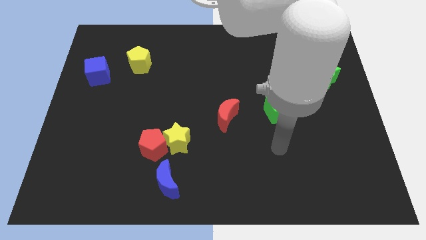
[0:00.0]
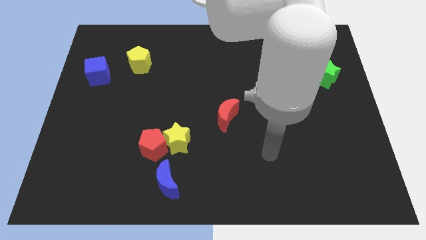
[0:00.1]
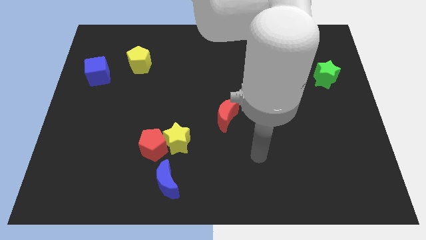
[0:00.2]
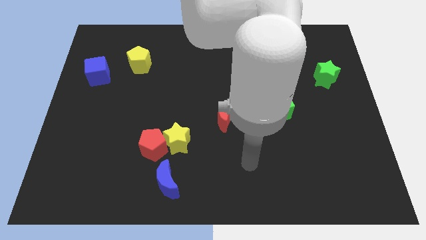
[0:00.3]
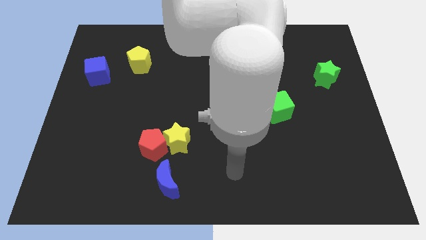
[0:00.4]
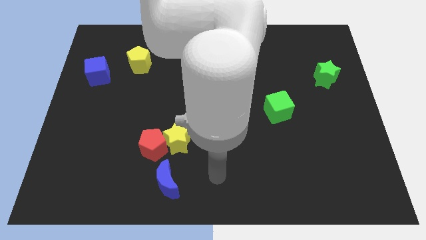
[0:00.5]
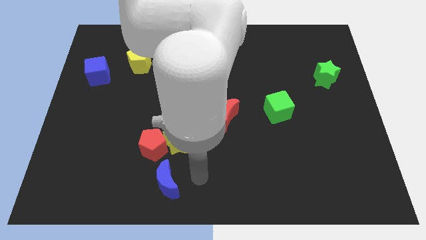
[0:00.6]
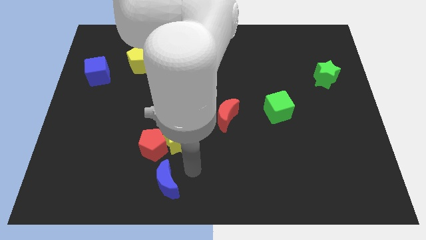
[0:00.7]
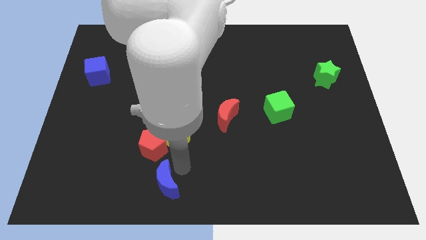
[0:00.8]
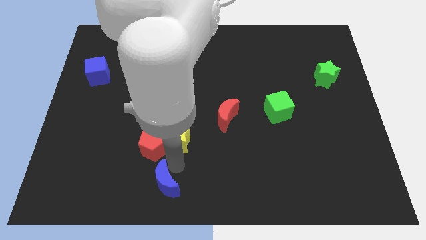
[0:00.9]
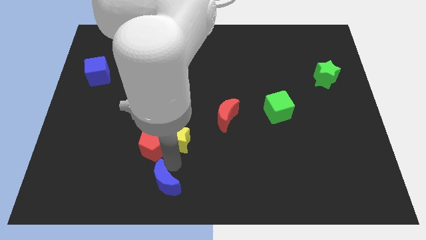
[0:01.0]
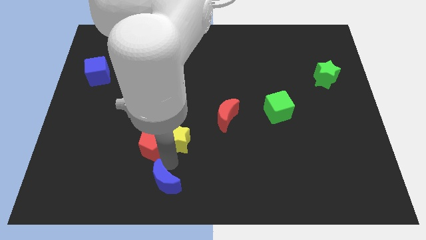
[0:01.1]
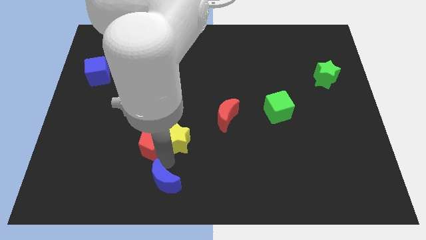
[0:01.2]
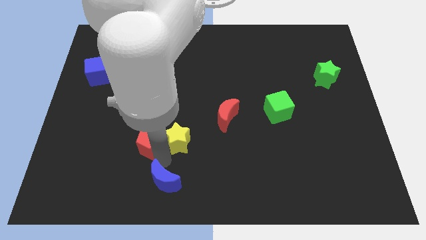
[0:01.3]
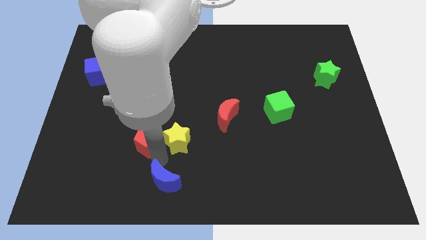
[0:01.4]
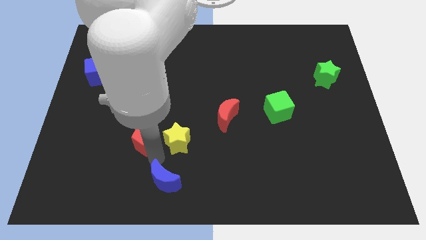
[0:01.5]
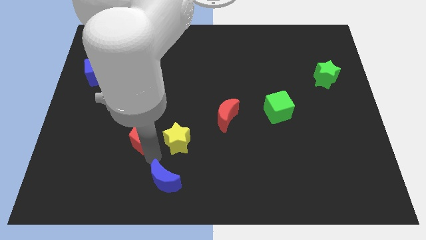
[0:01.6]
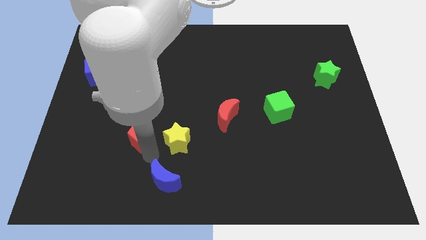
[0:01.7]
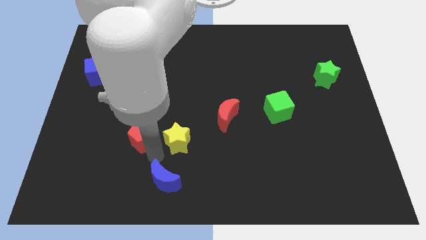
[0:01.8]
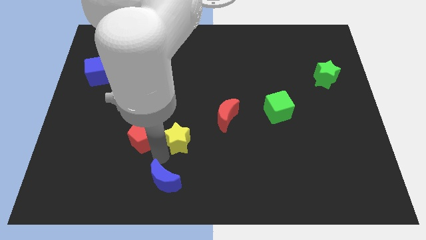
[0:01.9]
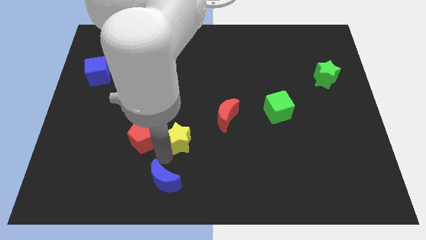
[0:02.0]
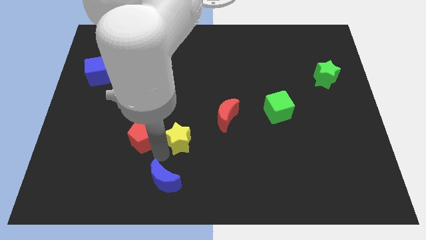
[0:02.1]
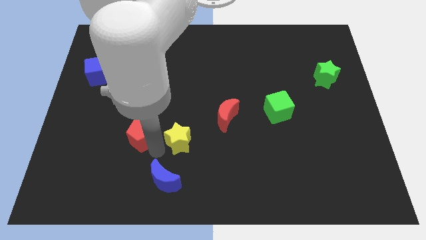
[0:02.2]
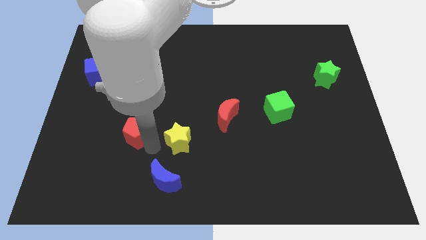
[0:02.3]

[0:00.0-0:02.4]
move the red pentagon away from the yellow star and blue moon

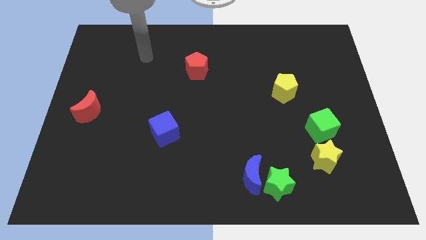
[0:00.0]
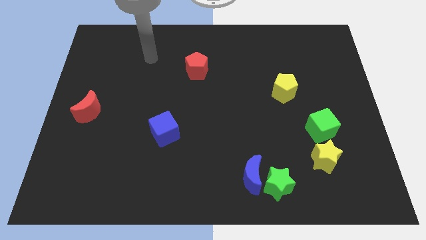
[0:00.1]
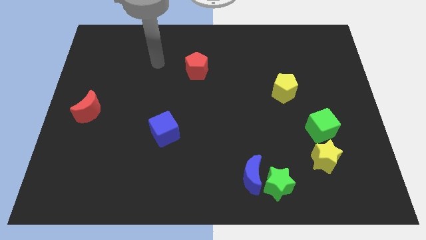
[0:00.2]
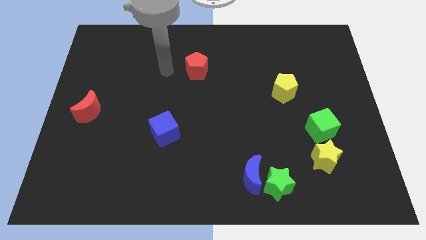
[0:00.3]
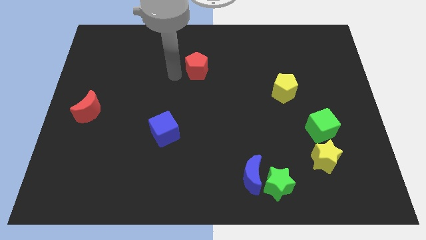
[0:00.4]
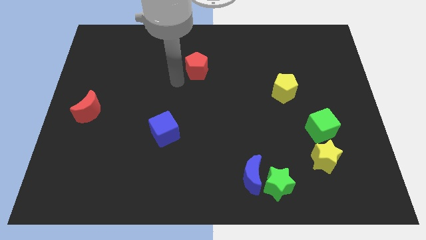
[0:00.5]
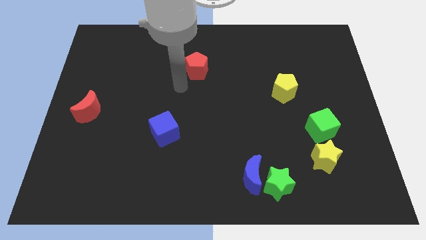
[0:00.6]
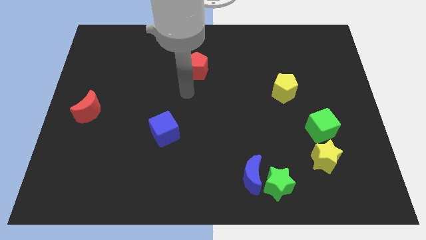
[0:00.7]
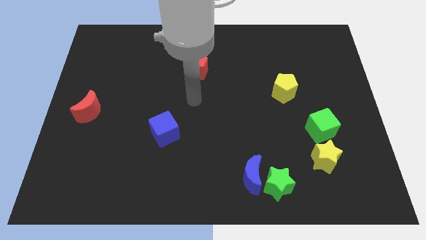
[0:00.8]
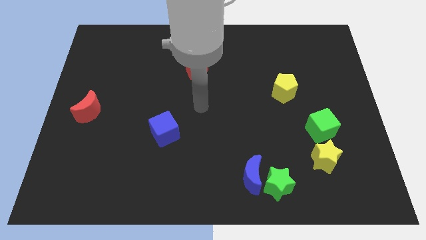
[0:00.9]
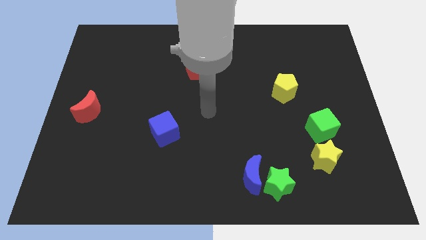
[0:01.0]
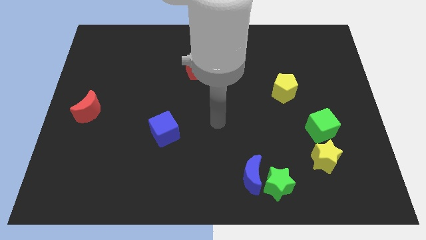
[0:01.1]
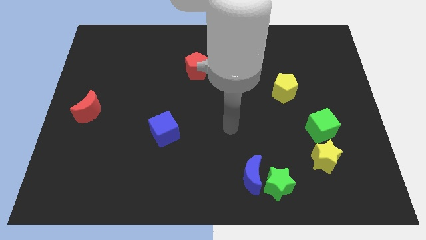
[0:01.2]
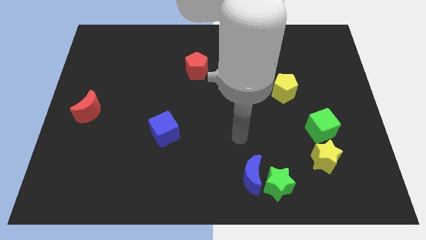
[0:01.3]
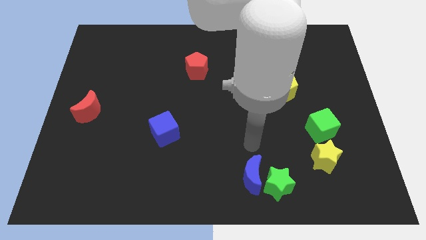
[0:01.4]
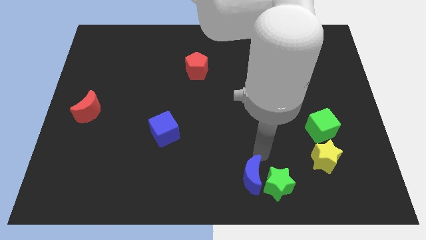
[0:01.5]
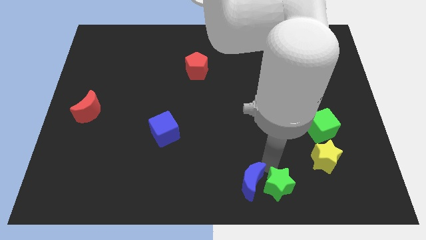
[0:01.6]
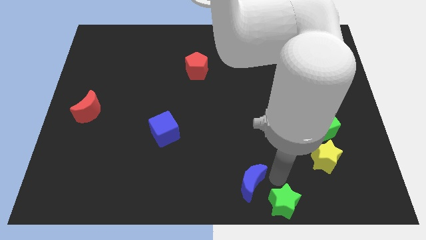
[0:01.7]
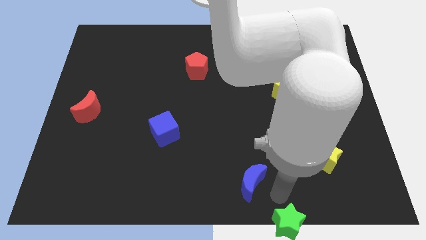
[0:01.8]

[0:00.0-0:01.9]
move the blue moon away from the green star

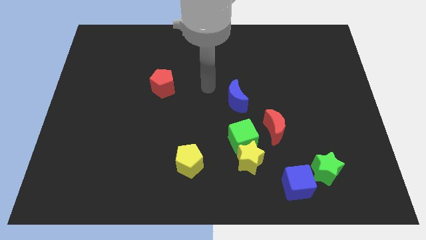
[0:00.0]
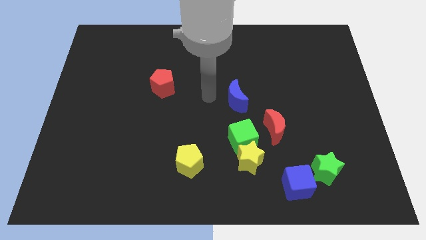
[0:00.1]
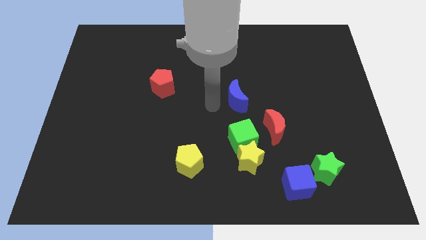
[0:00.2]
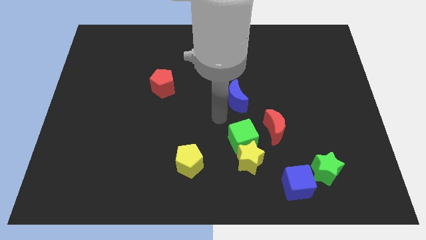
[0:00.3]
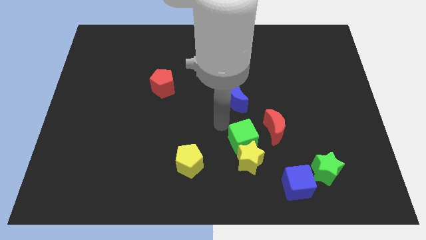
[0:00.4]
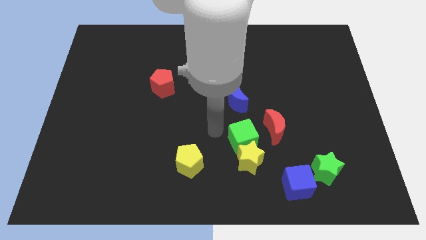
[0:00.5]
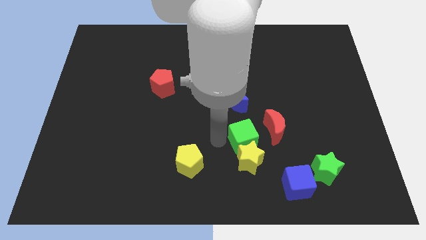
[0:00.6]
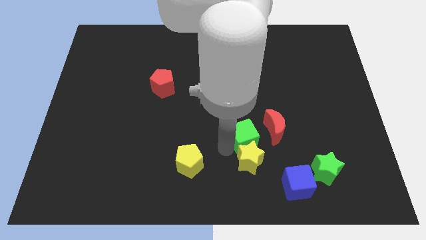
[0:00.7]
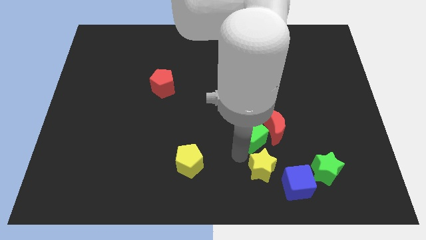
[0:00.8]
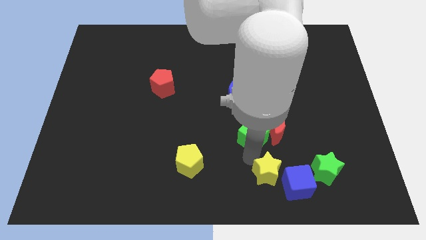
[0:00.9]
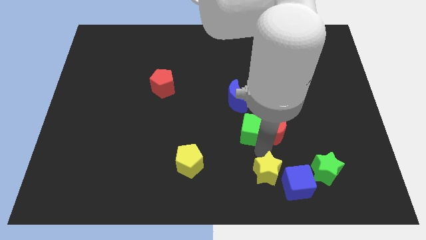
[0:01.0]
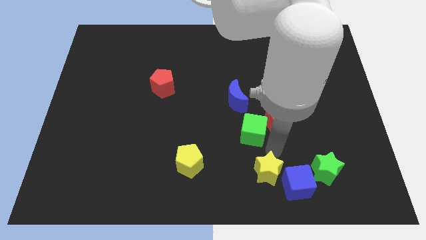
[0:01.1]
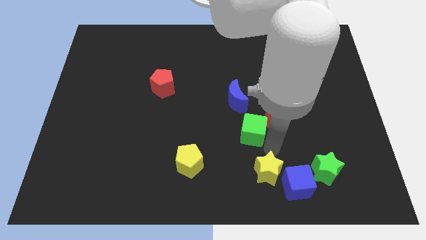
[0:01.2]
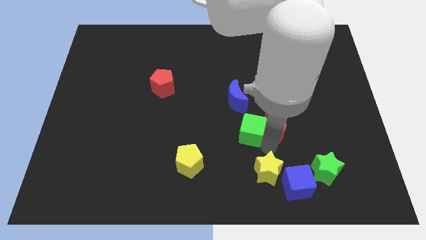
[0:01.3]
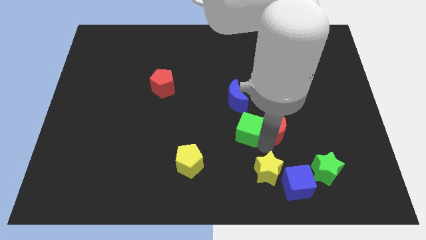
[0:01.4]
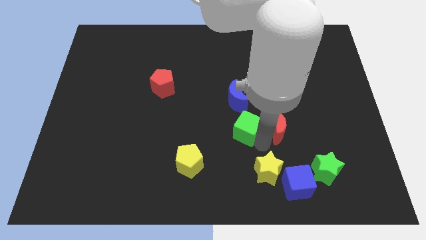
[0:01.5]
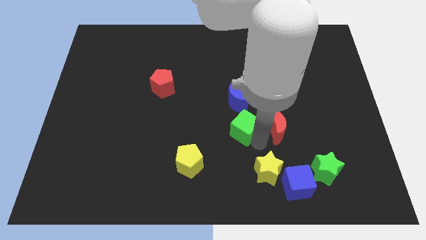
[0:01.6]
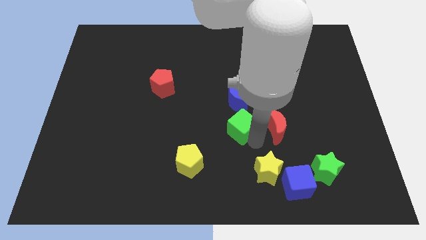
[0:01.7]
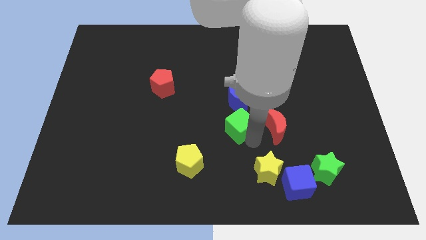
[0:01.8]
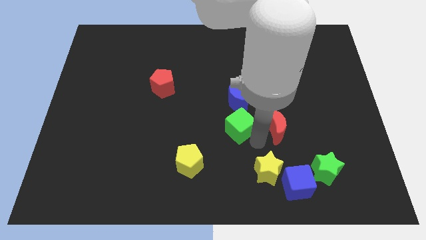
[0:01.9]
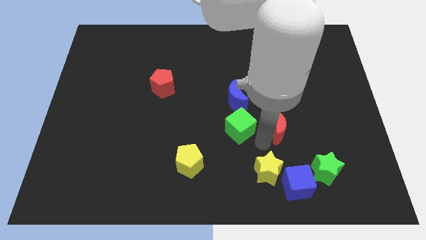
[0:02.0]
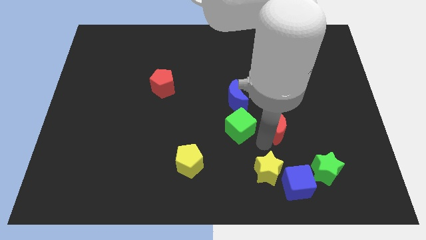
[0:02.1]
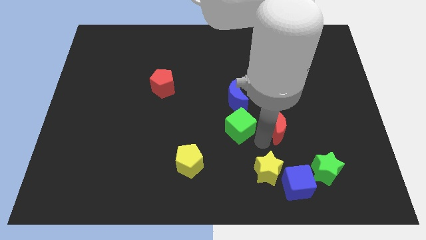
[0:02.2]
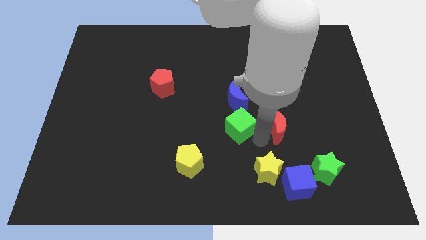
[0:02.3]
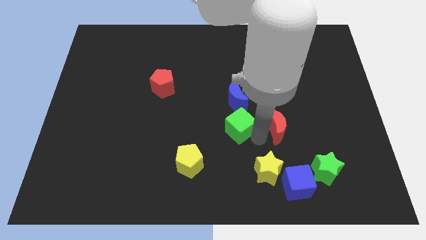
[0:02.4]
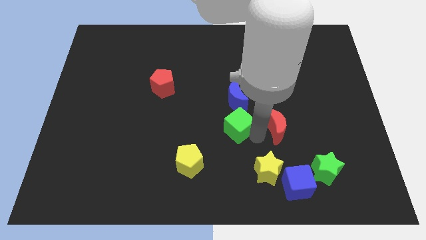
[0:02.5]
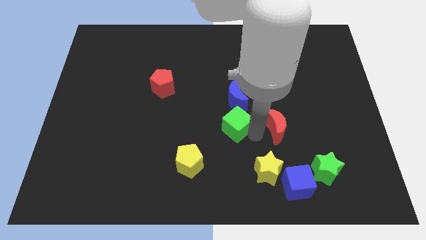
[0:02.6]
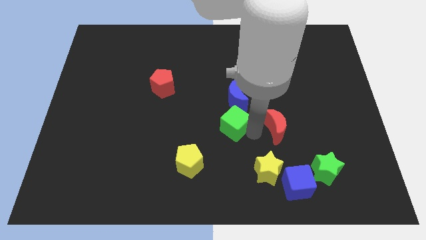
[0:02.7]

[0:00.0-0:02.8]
separate the green cube from the yellow star and red moon

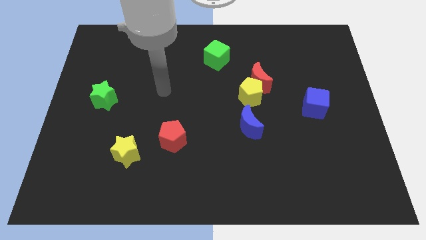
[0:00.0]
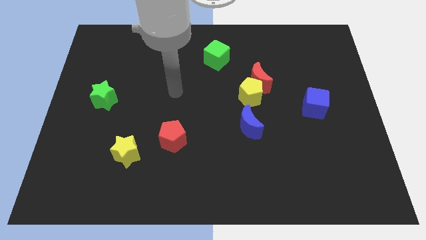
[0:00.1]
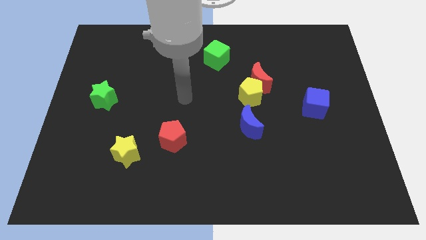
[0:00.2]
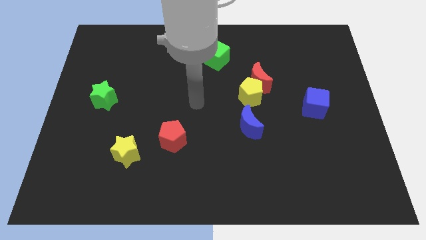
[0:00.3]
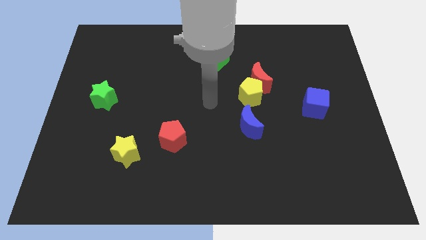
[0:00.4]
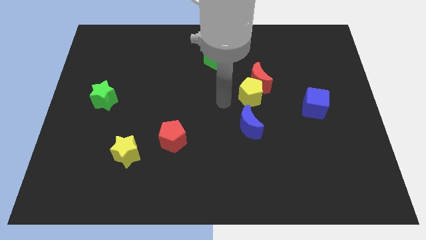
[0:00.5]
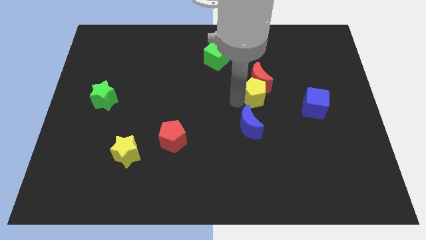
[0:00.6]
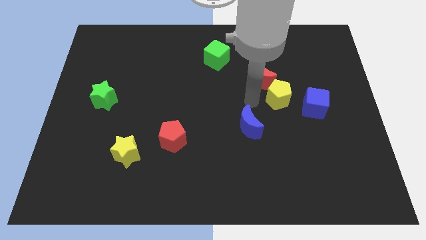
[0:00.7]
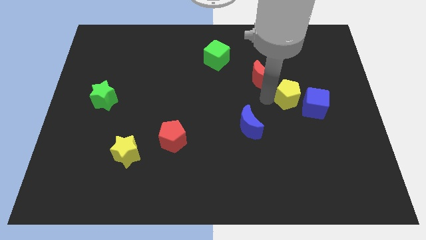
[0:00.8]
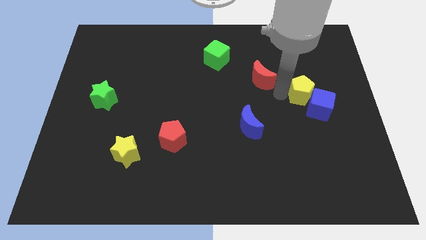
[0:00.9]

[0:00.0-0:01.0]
move the red moon away from the yellow pentagon

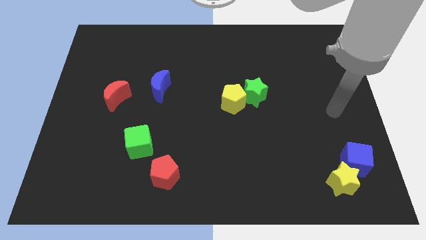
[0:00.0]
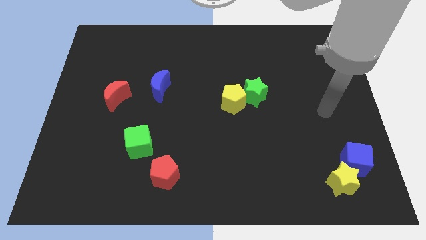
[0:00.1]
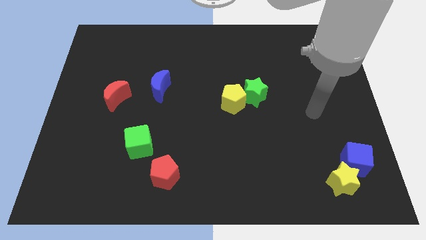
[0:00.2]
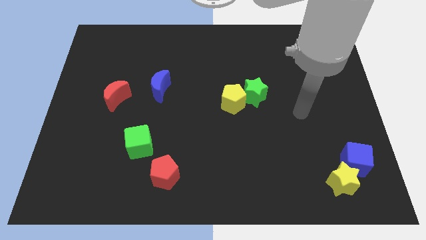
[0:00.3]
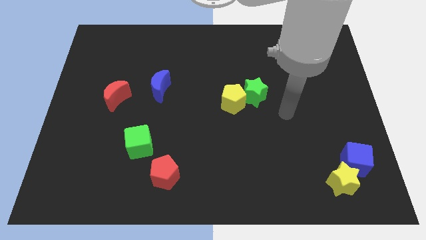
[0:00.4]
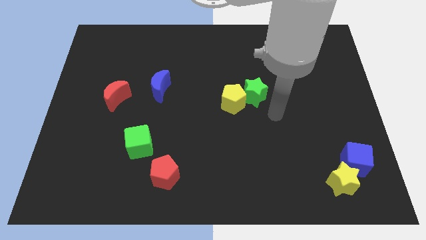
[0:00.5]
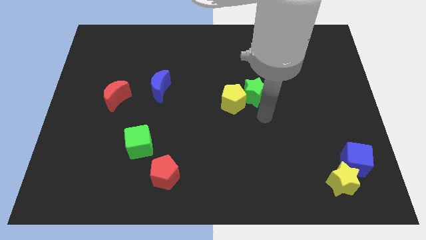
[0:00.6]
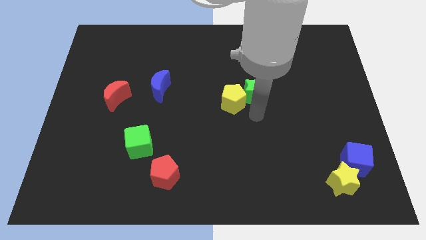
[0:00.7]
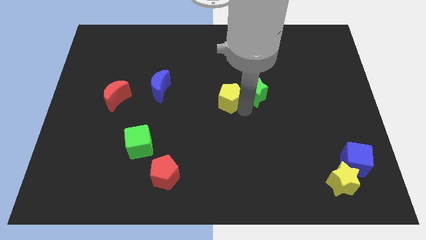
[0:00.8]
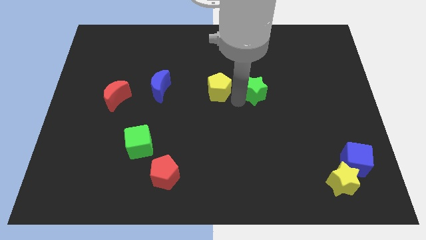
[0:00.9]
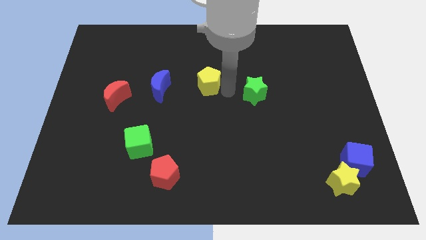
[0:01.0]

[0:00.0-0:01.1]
pull the green star apart from the yellow pentagon
